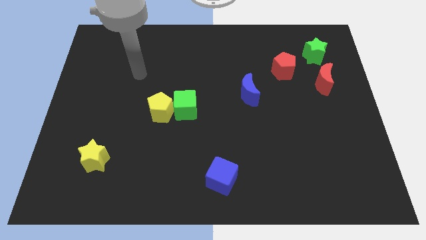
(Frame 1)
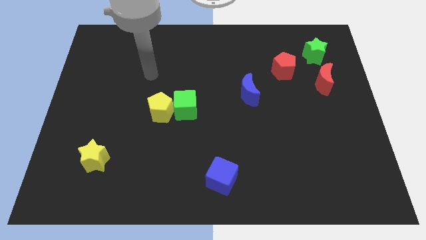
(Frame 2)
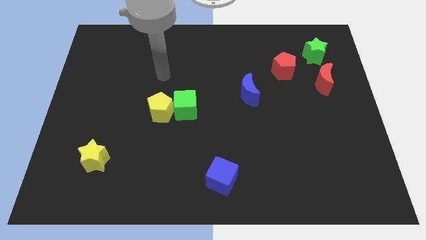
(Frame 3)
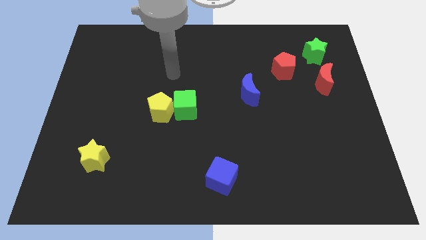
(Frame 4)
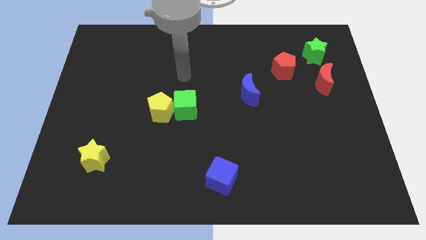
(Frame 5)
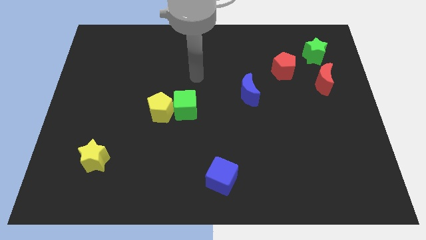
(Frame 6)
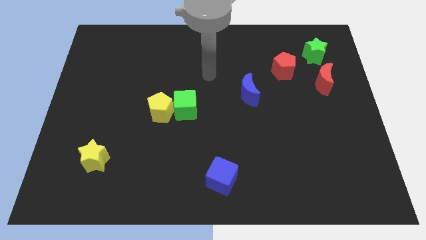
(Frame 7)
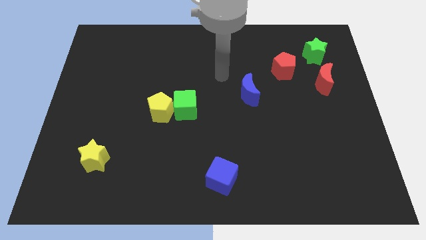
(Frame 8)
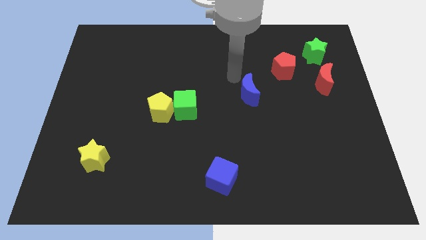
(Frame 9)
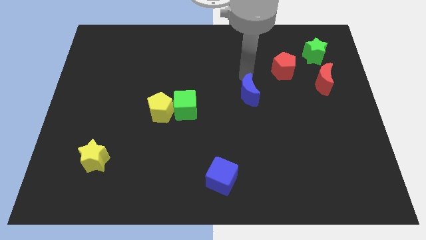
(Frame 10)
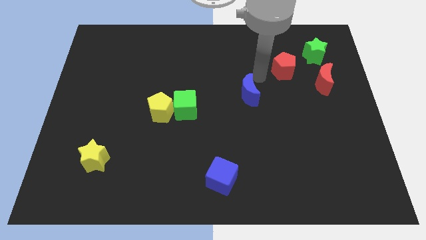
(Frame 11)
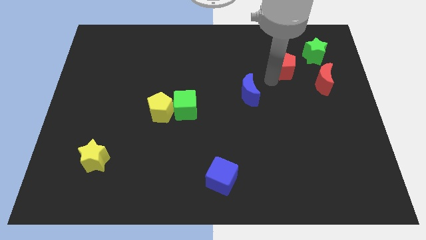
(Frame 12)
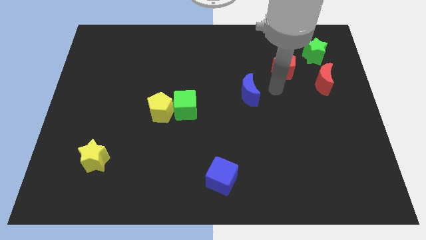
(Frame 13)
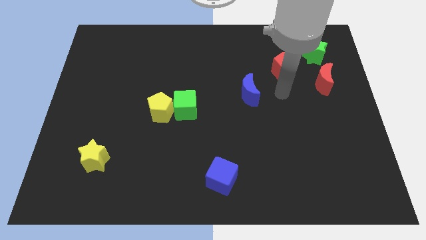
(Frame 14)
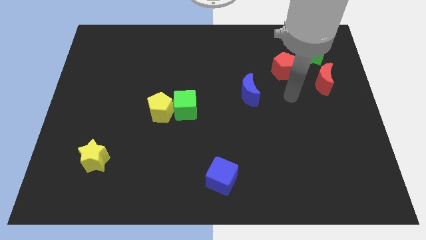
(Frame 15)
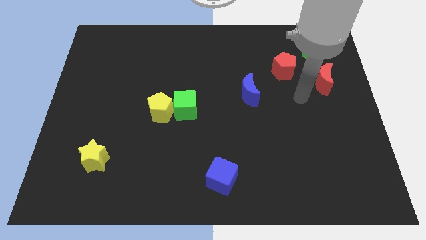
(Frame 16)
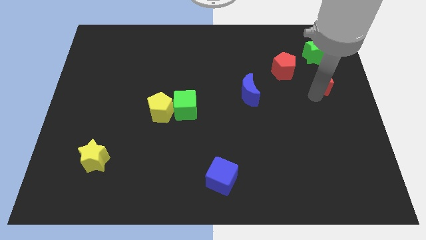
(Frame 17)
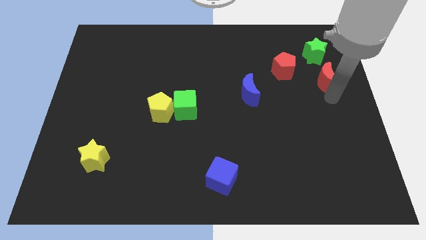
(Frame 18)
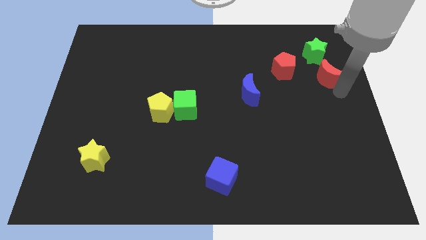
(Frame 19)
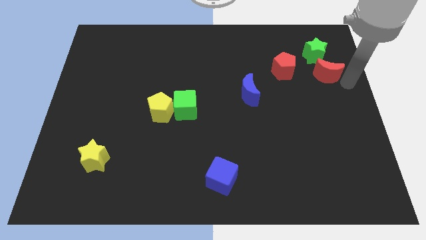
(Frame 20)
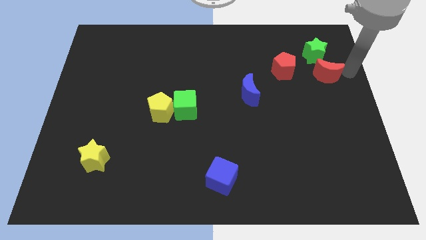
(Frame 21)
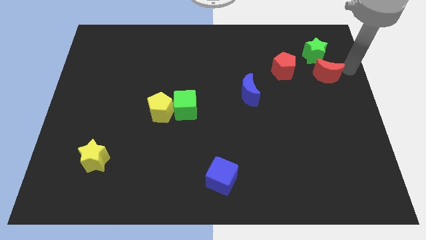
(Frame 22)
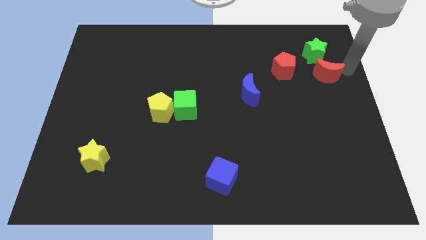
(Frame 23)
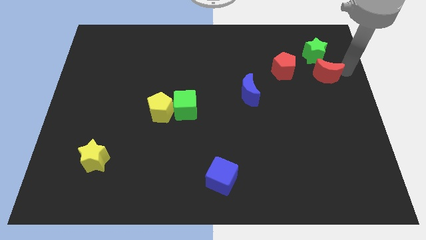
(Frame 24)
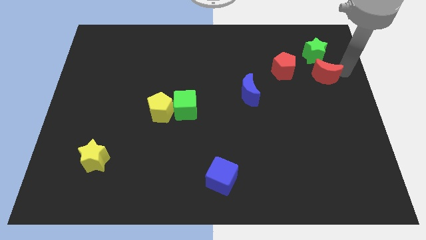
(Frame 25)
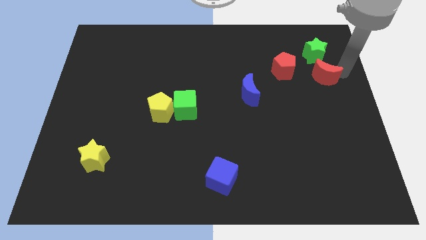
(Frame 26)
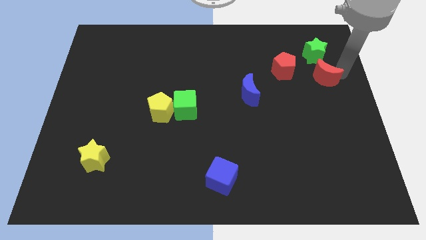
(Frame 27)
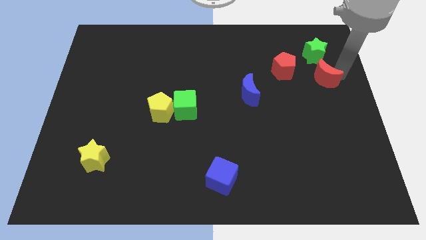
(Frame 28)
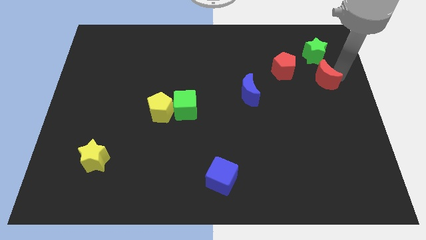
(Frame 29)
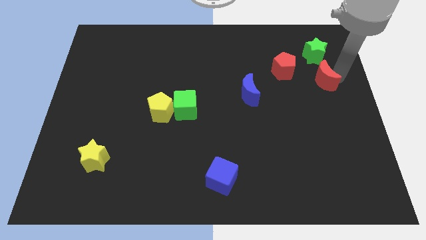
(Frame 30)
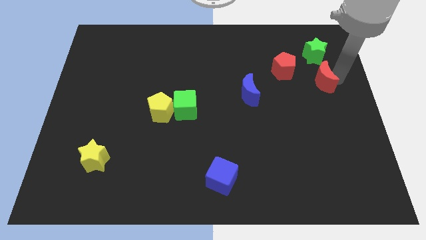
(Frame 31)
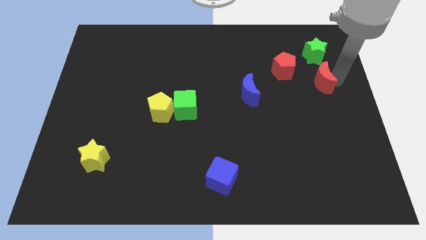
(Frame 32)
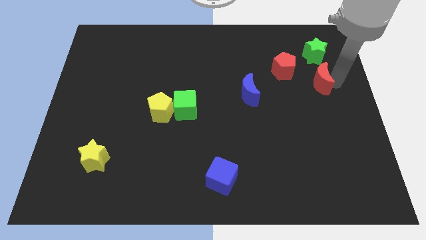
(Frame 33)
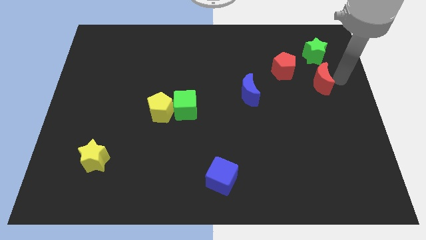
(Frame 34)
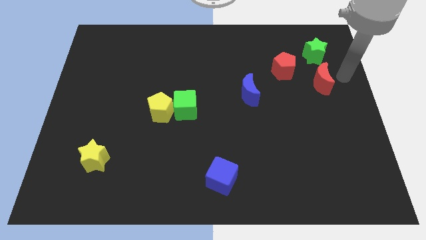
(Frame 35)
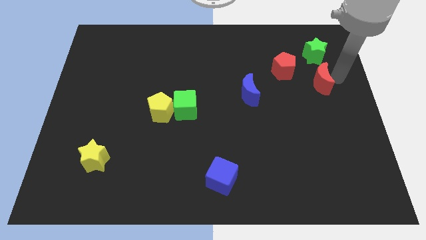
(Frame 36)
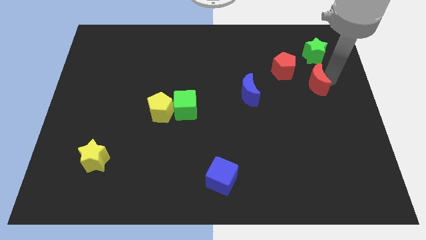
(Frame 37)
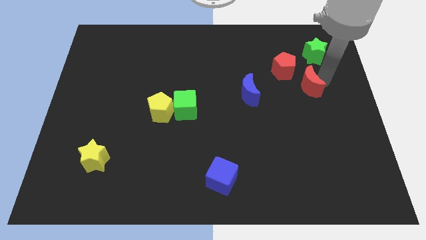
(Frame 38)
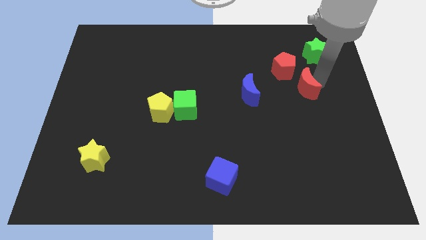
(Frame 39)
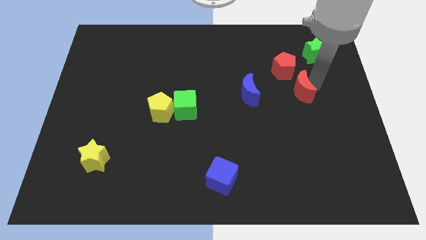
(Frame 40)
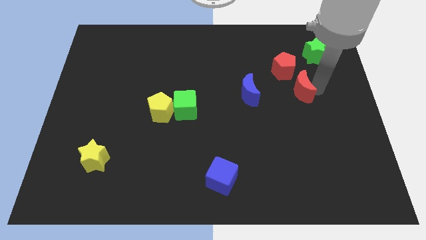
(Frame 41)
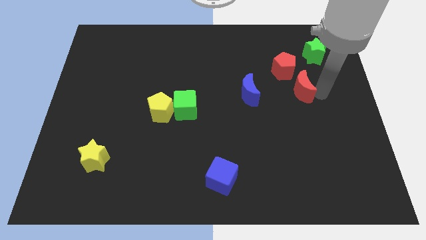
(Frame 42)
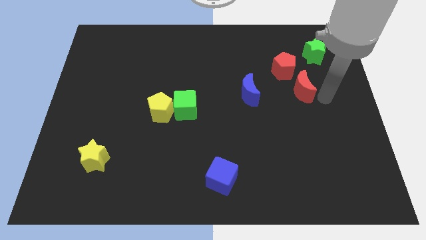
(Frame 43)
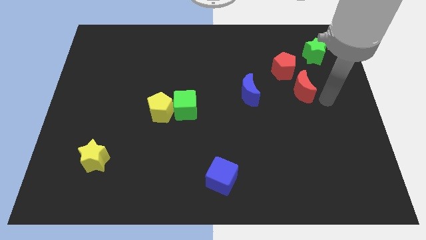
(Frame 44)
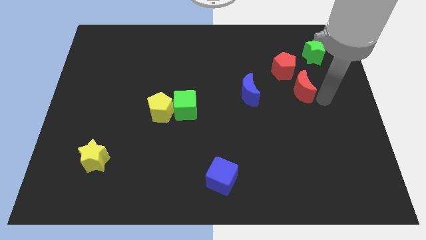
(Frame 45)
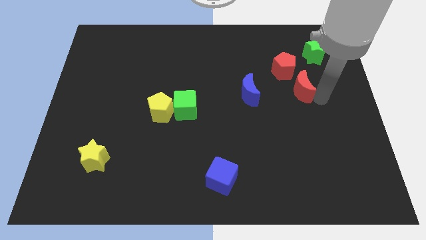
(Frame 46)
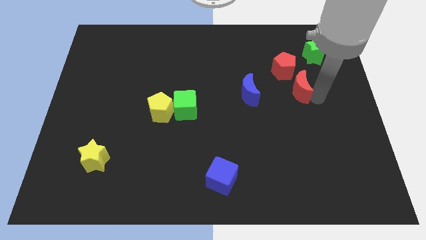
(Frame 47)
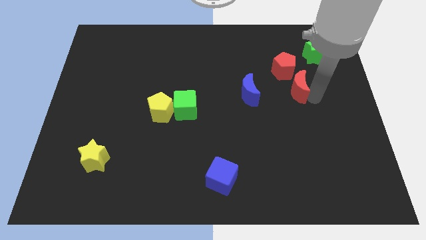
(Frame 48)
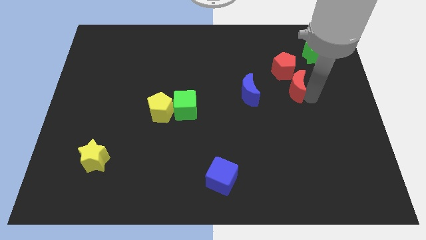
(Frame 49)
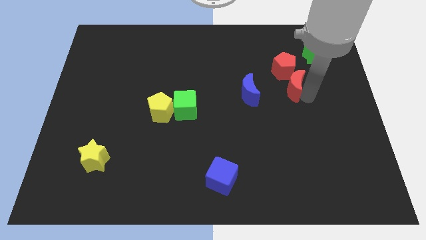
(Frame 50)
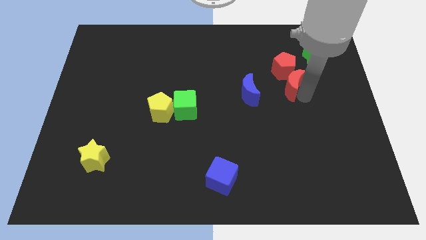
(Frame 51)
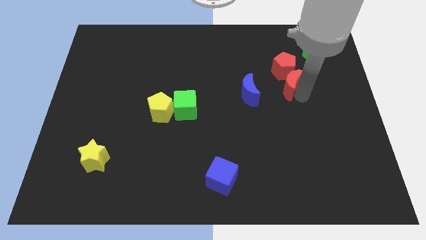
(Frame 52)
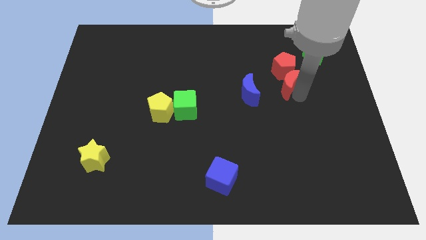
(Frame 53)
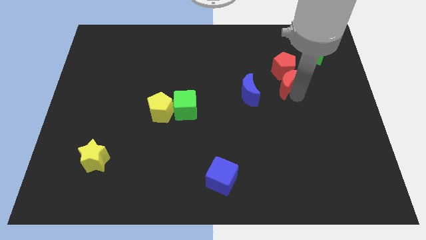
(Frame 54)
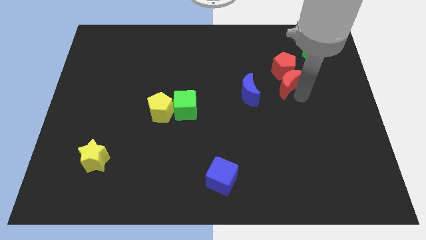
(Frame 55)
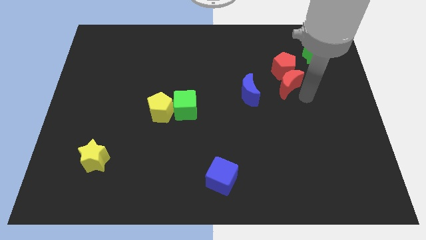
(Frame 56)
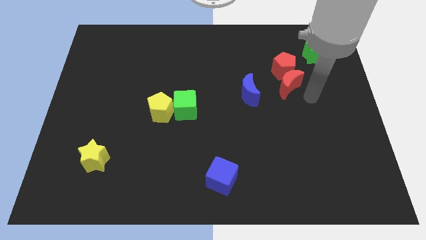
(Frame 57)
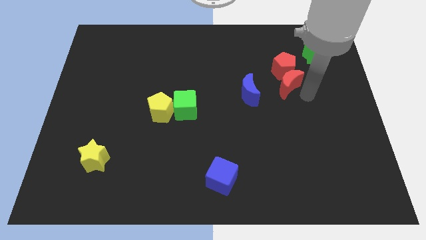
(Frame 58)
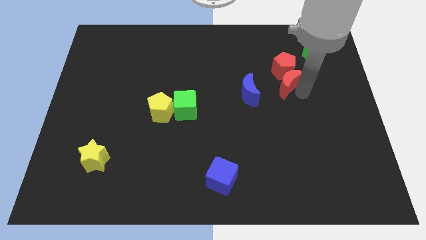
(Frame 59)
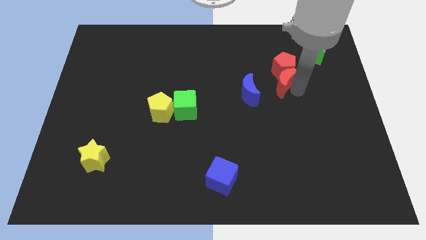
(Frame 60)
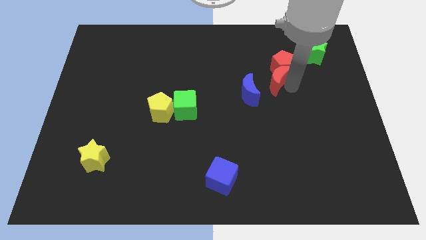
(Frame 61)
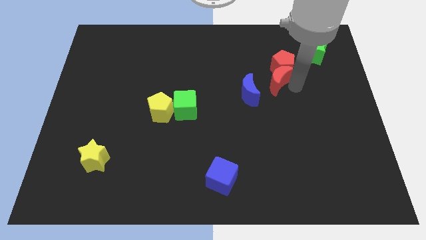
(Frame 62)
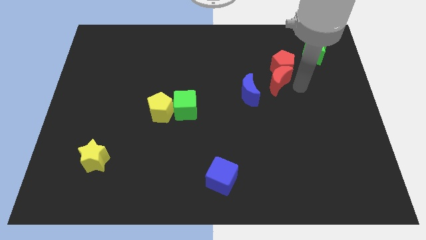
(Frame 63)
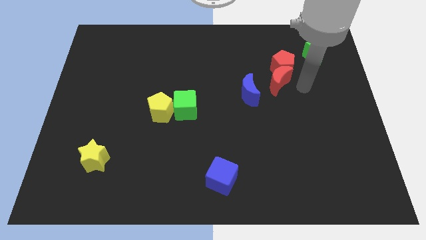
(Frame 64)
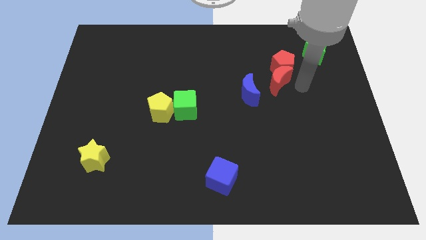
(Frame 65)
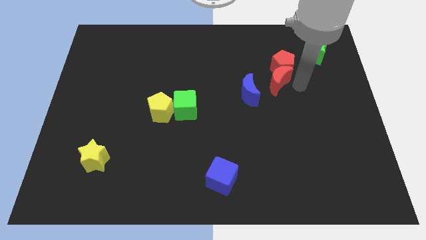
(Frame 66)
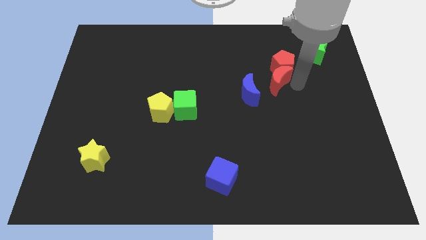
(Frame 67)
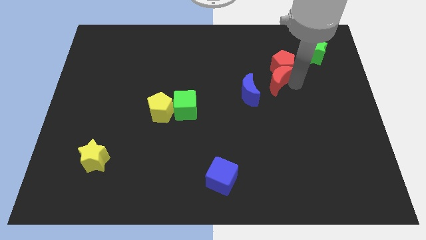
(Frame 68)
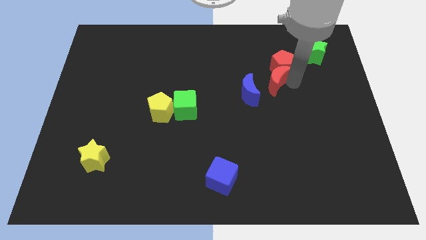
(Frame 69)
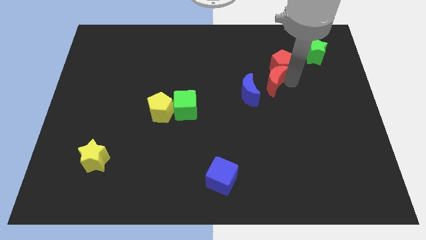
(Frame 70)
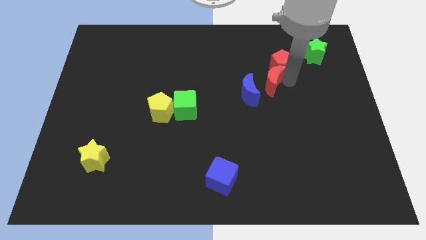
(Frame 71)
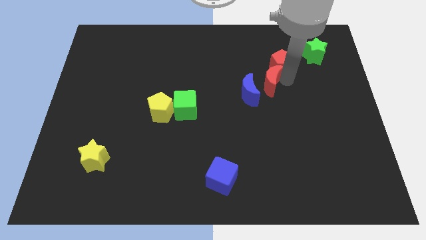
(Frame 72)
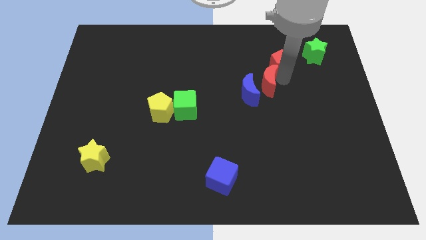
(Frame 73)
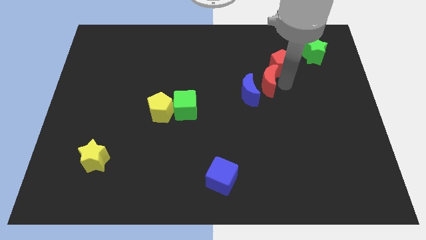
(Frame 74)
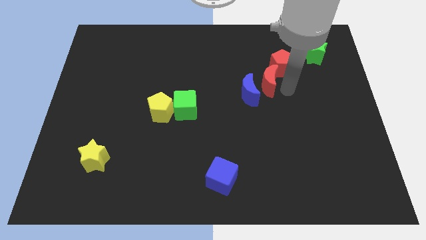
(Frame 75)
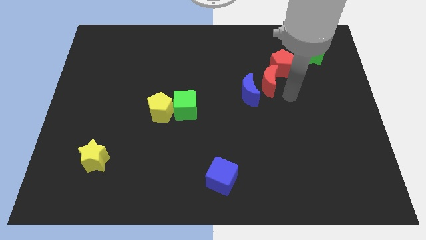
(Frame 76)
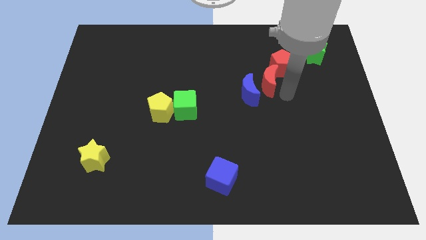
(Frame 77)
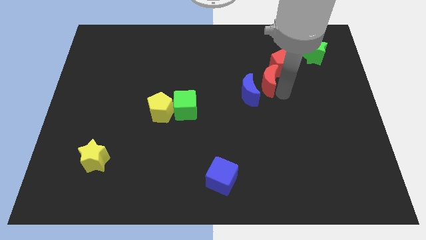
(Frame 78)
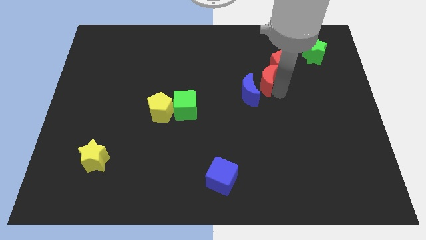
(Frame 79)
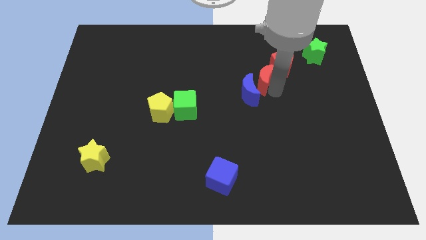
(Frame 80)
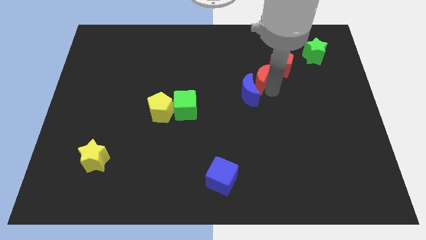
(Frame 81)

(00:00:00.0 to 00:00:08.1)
put the red moon to the left side of the red pentagon
